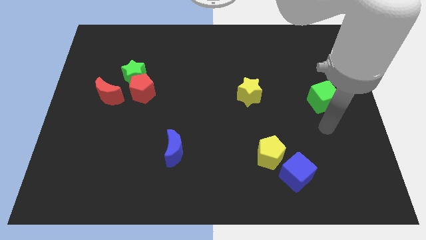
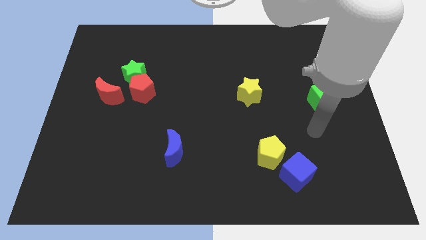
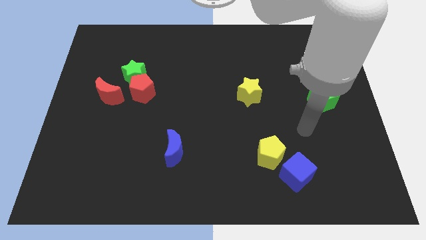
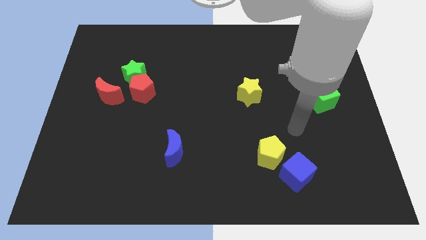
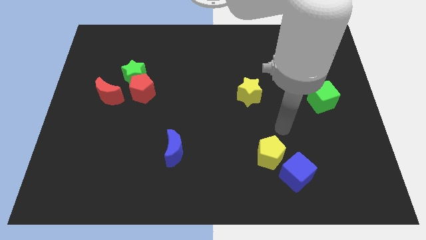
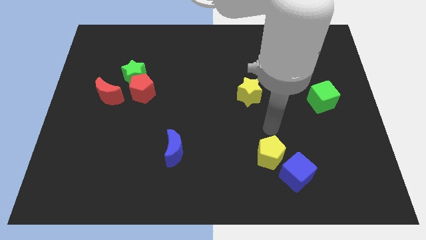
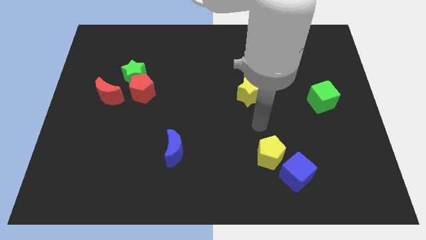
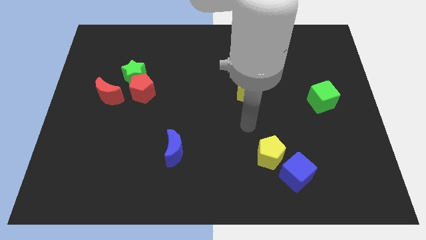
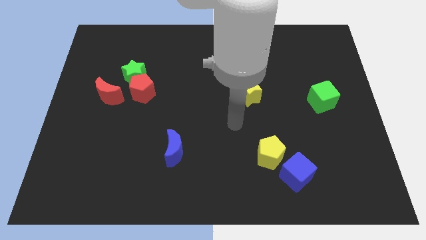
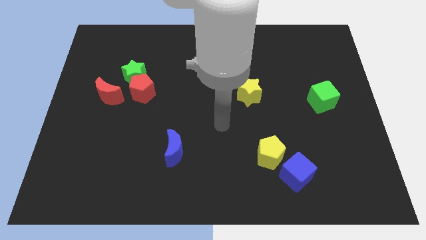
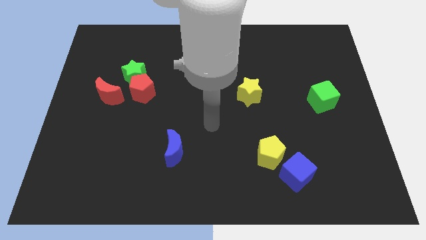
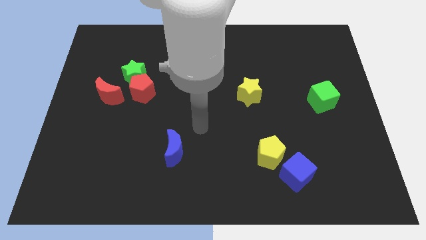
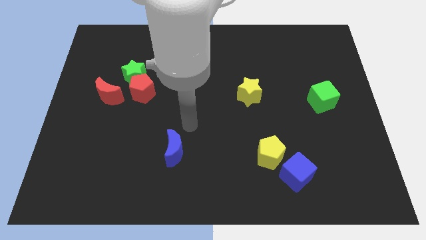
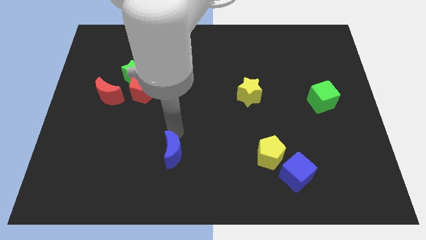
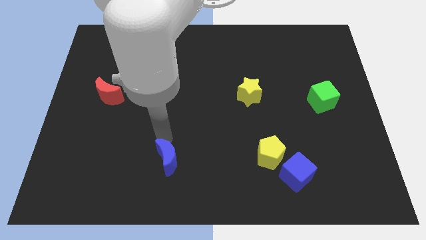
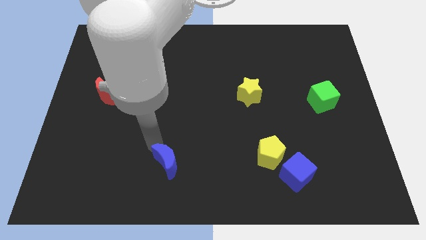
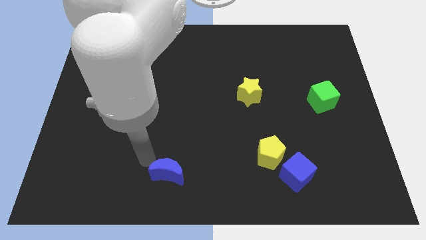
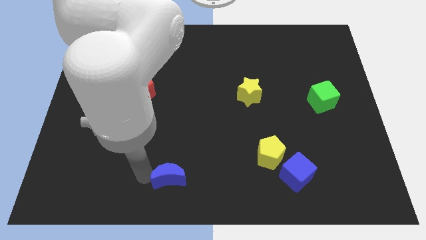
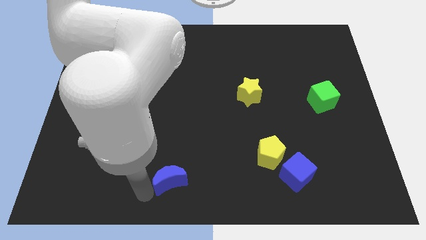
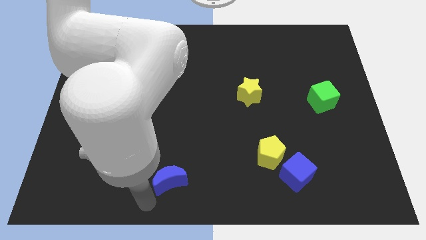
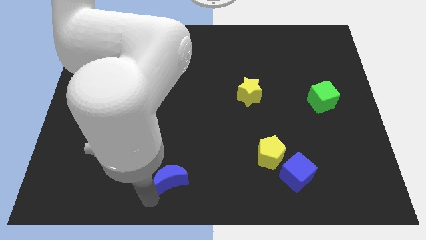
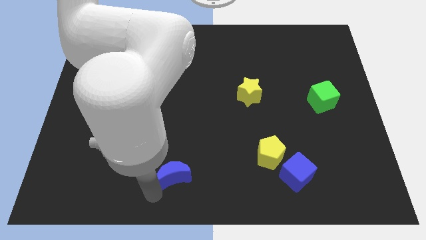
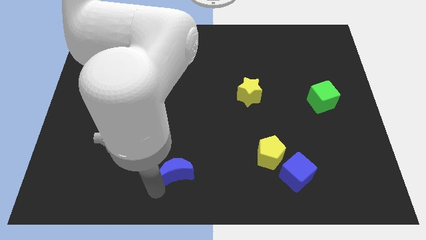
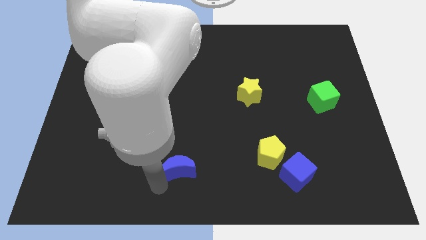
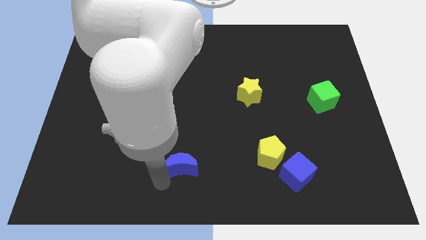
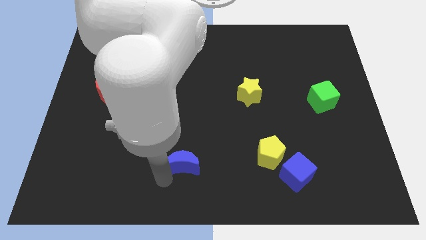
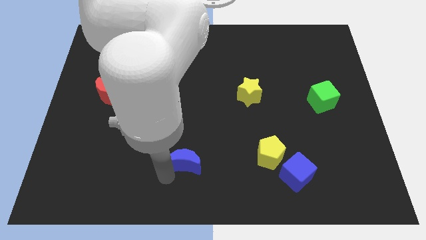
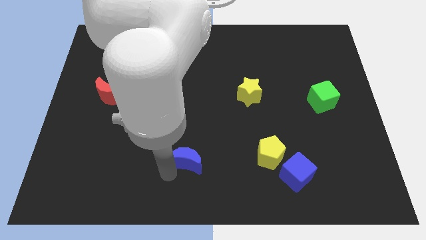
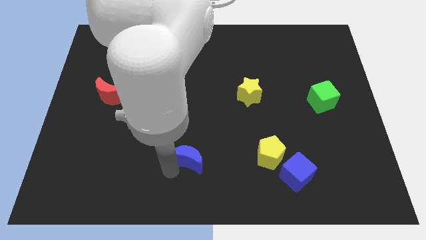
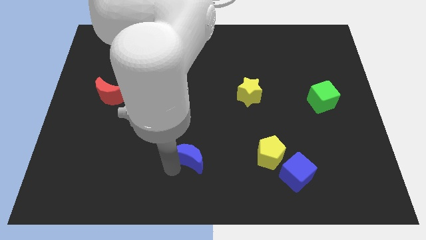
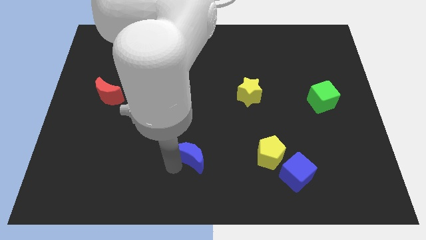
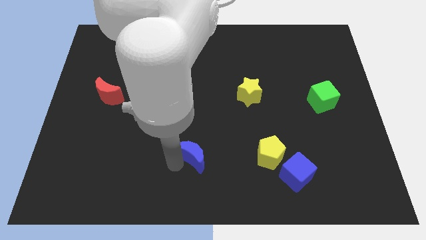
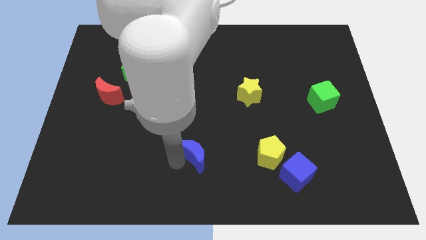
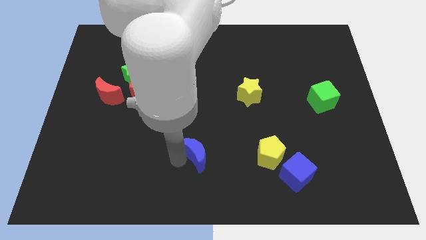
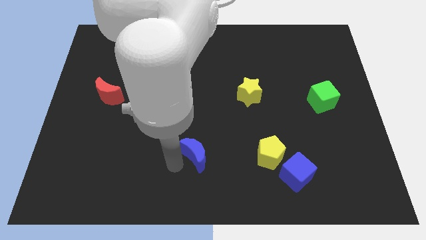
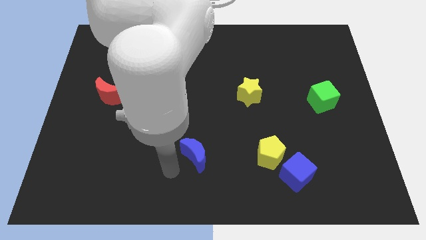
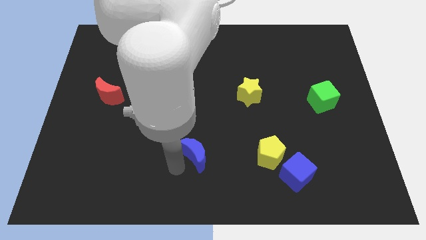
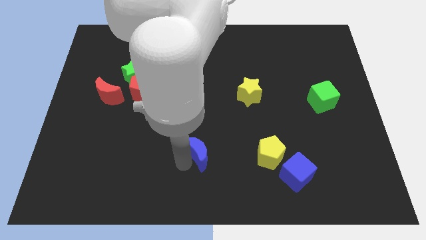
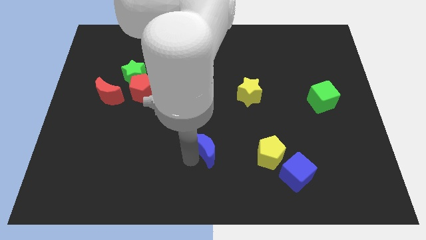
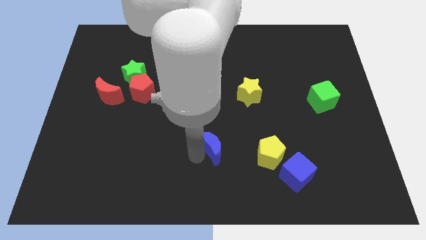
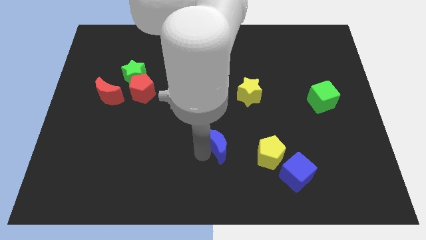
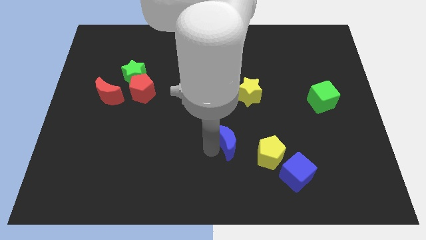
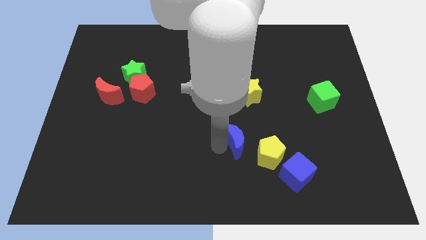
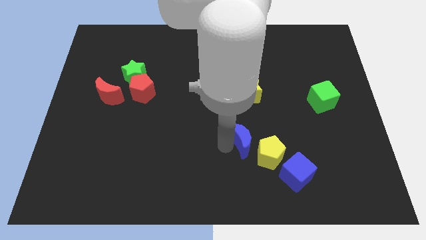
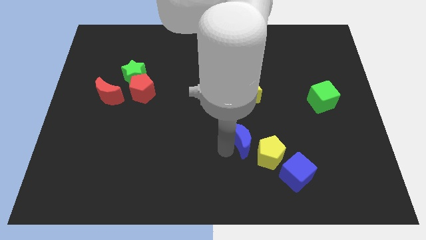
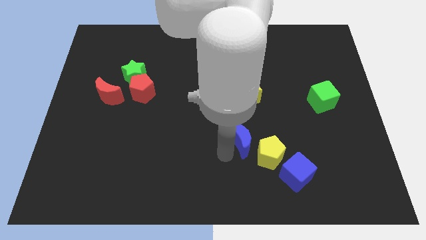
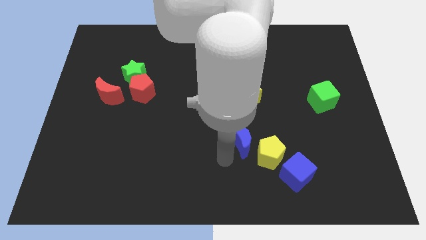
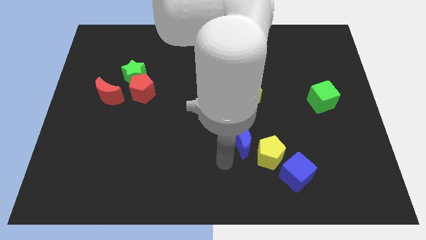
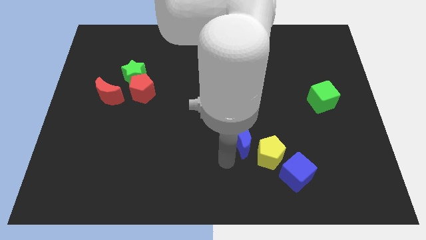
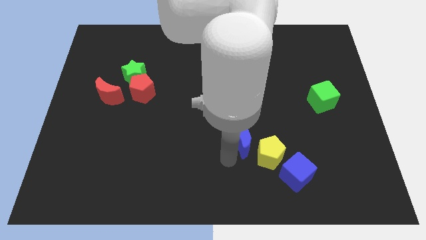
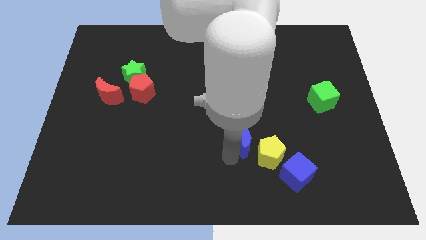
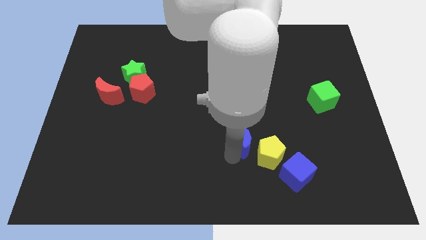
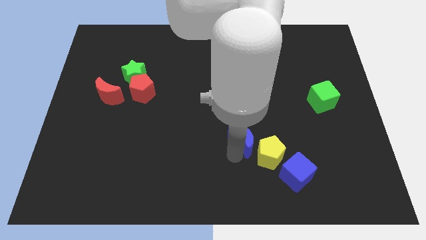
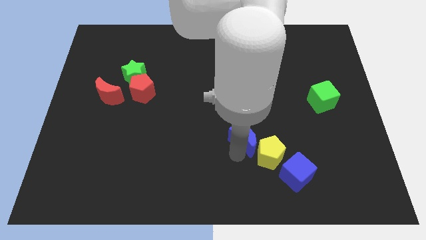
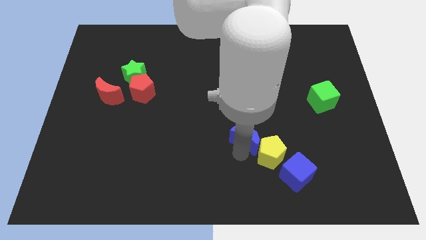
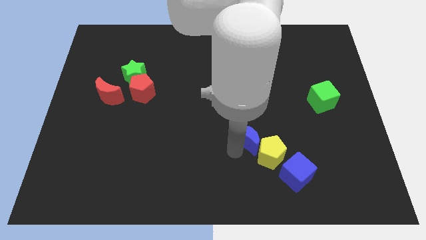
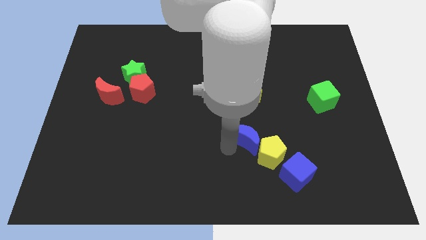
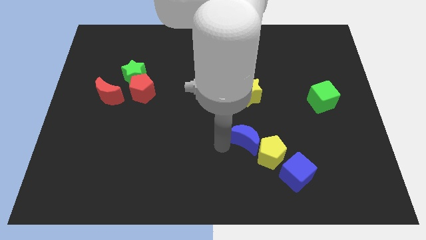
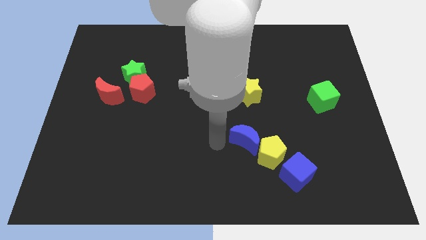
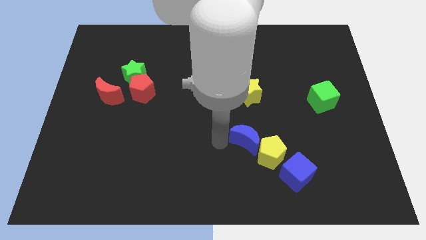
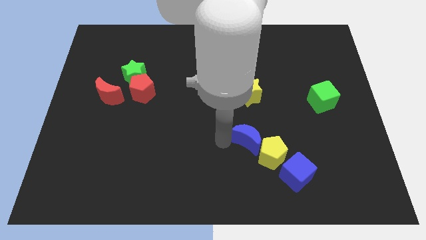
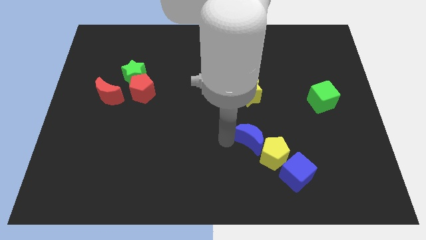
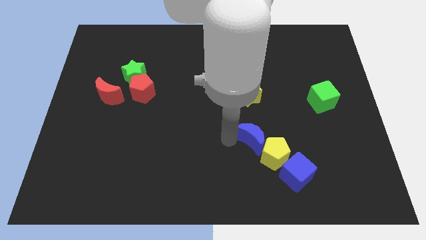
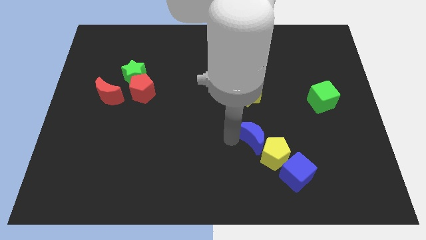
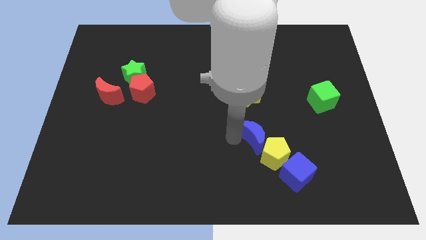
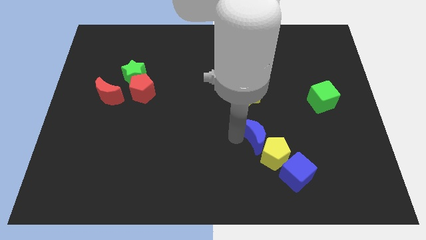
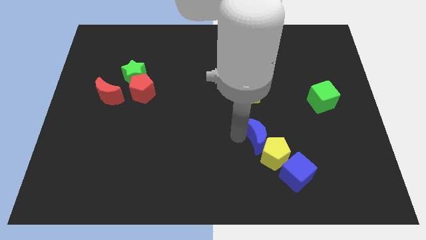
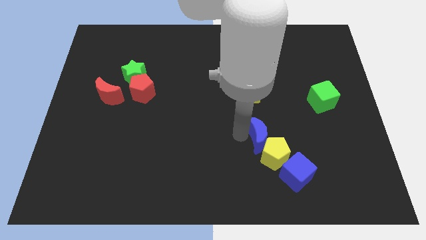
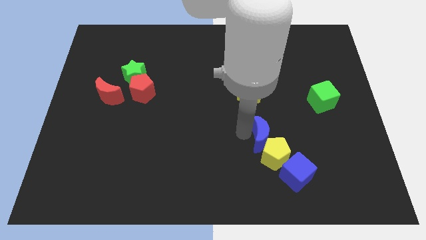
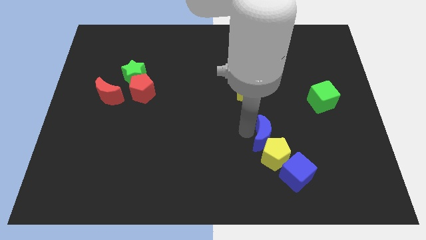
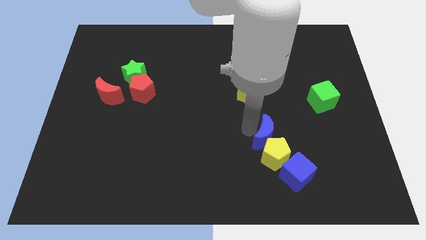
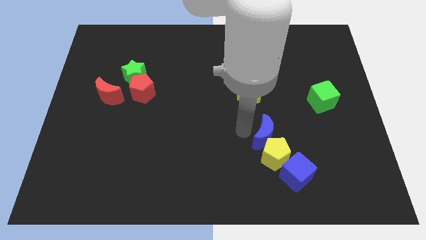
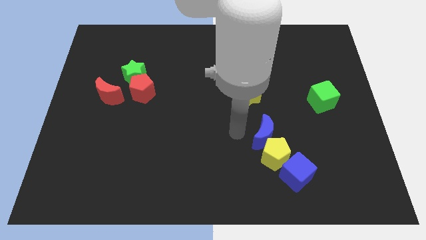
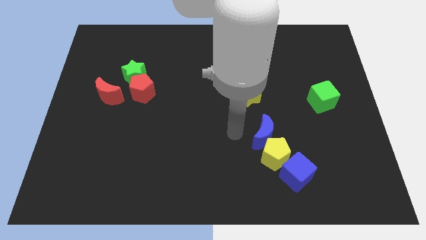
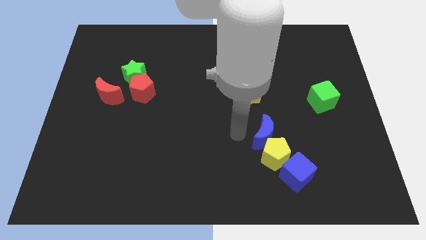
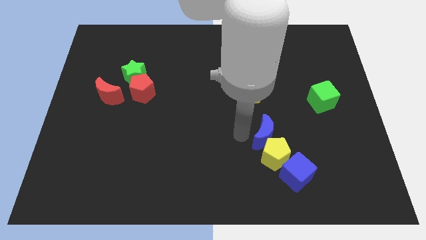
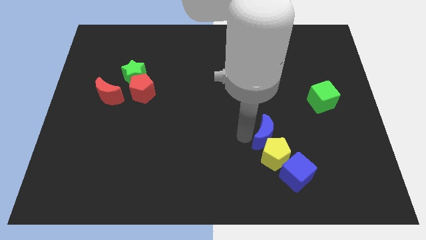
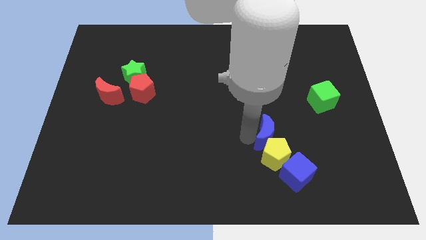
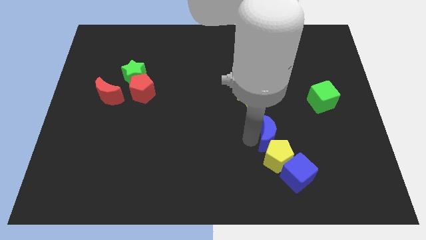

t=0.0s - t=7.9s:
move the blue moon right

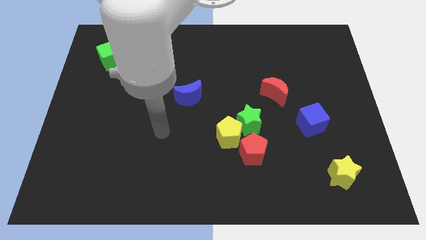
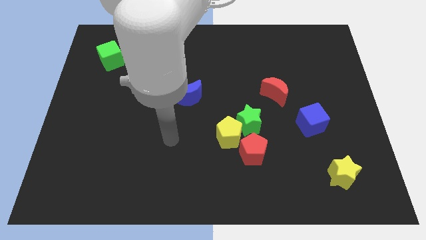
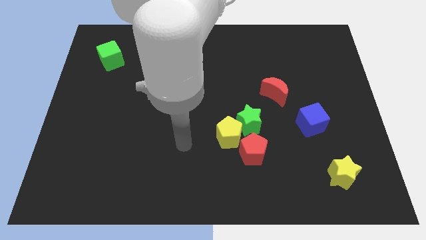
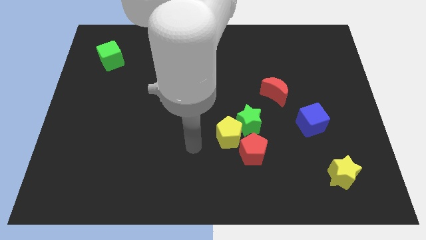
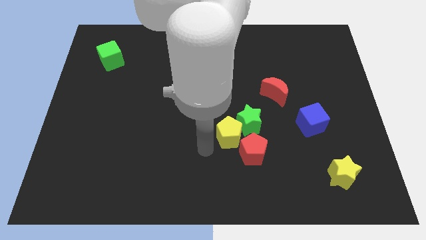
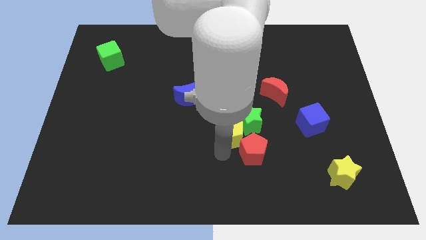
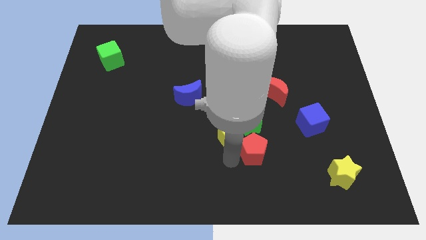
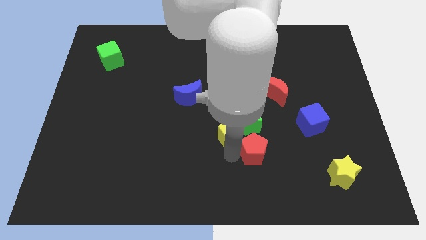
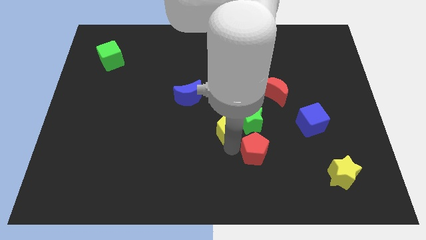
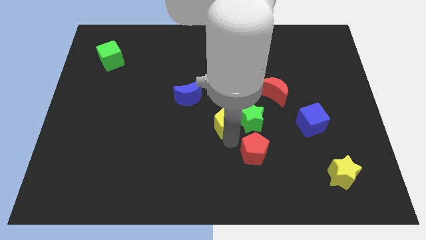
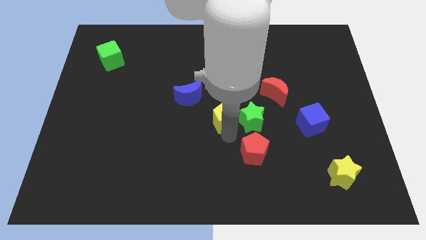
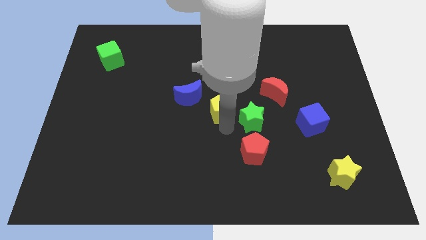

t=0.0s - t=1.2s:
slide the yellow pentagon up a bit
